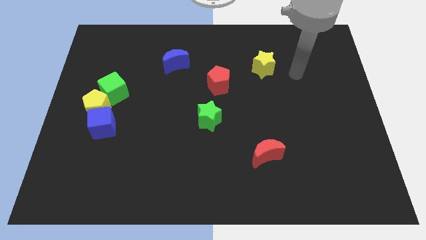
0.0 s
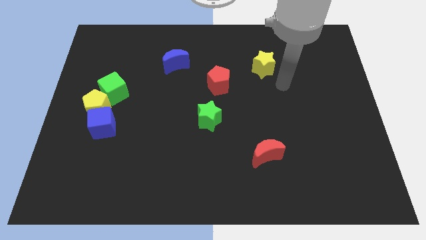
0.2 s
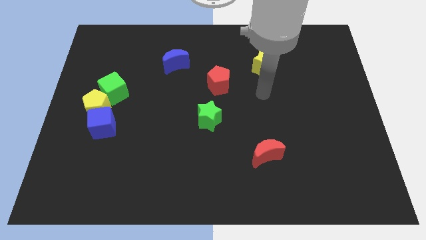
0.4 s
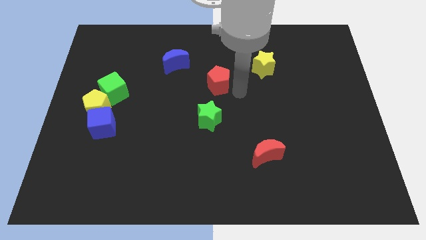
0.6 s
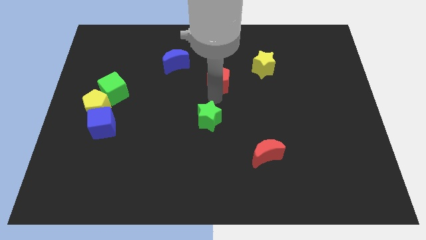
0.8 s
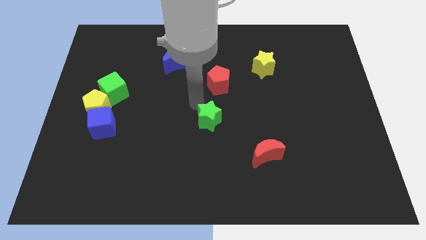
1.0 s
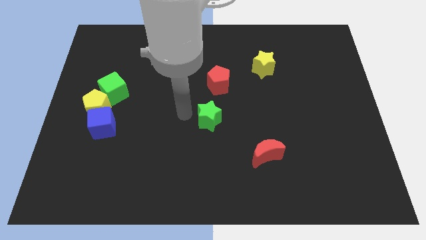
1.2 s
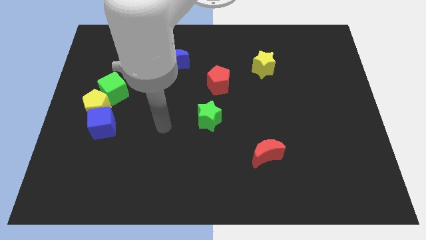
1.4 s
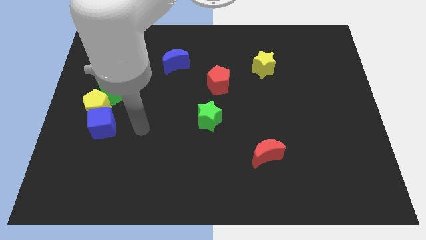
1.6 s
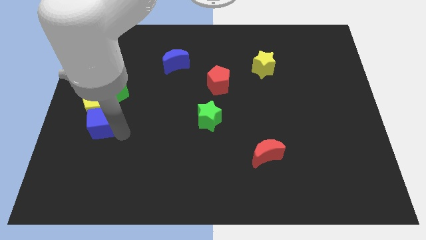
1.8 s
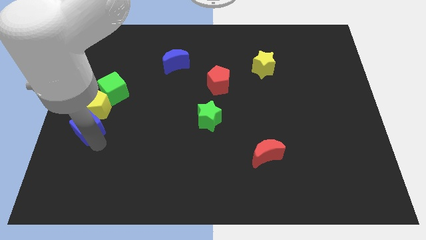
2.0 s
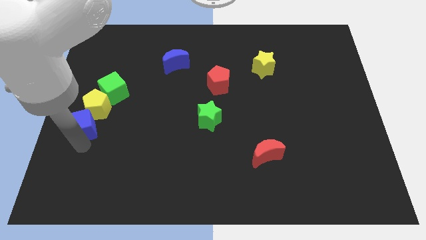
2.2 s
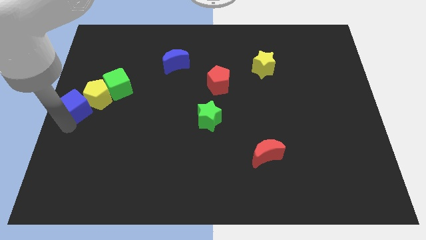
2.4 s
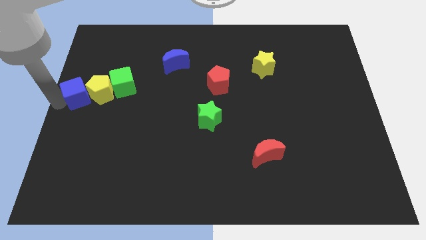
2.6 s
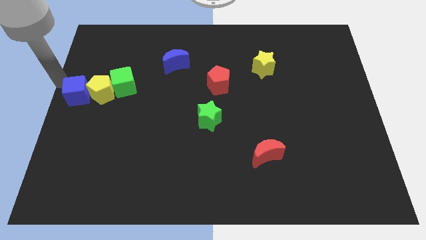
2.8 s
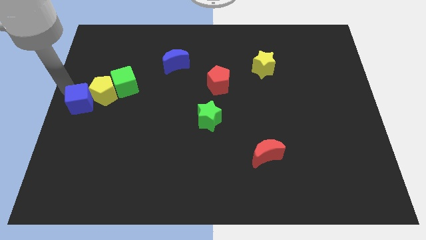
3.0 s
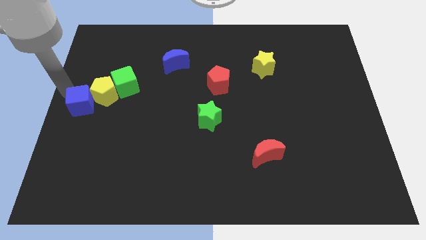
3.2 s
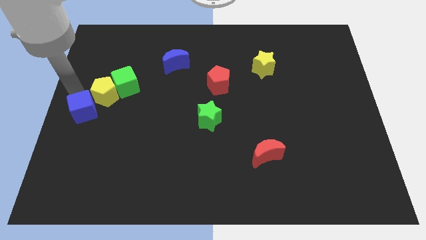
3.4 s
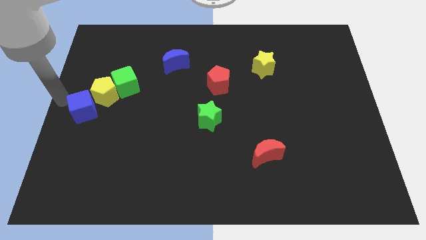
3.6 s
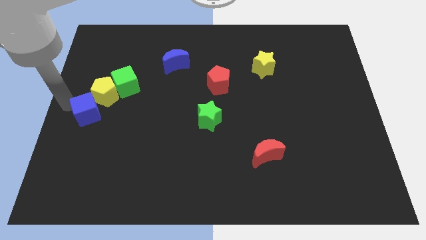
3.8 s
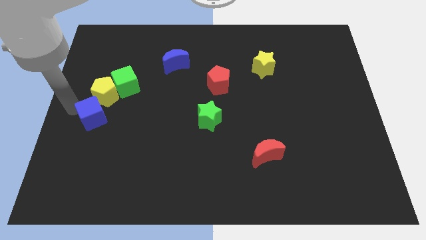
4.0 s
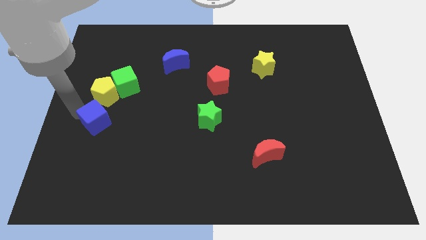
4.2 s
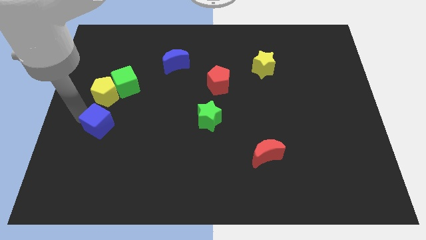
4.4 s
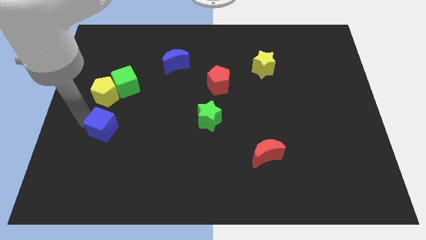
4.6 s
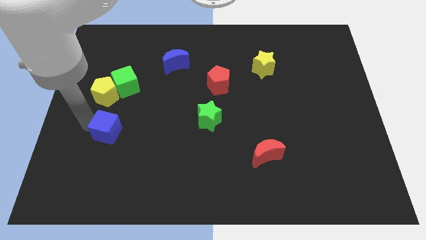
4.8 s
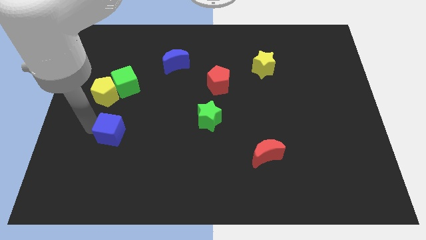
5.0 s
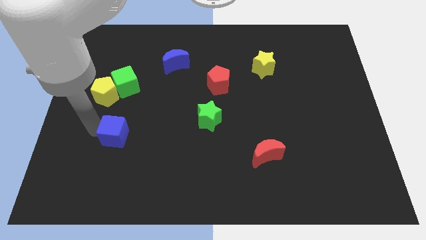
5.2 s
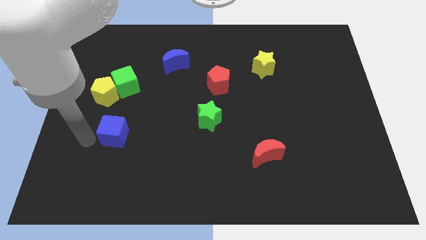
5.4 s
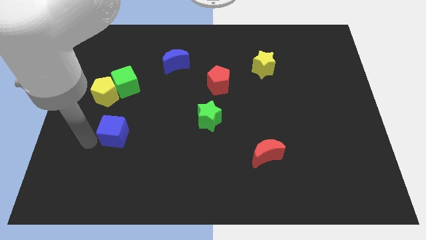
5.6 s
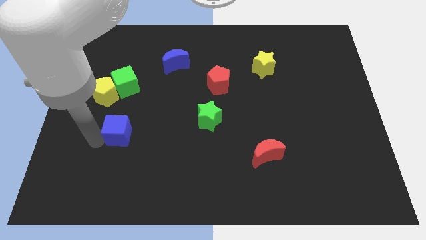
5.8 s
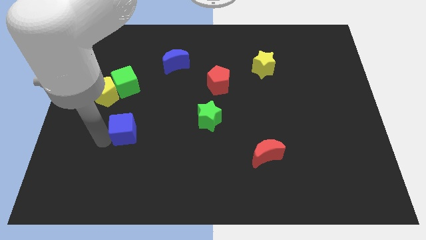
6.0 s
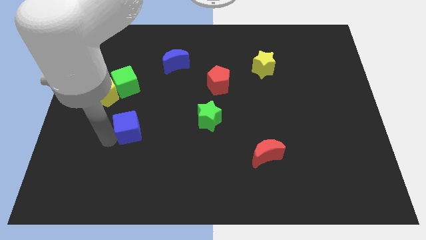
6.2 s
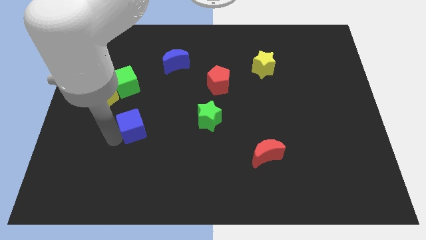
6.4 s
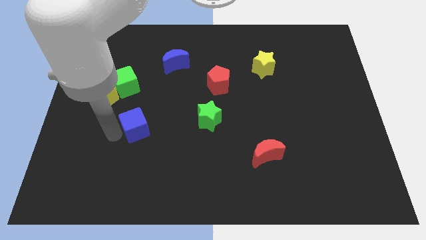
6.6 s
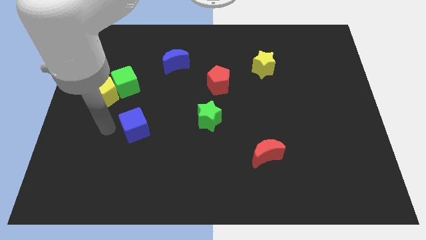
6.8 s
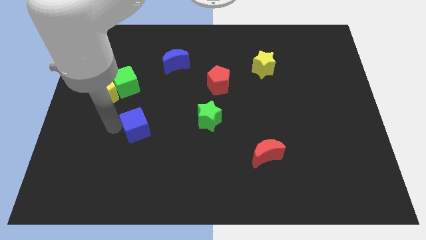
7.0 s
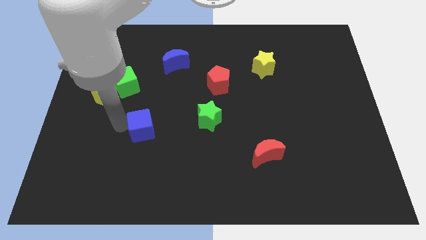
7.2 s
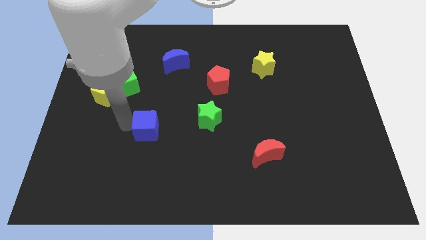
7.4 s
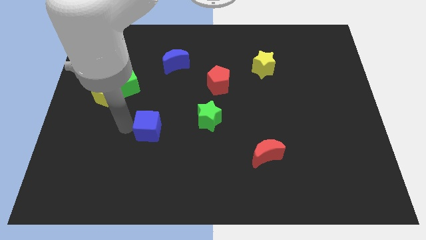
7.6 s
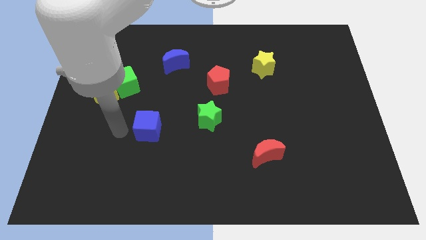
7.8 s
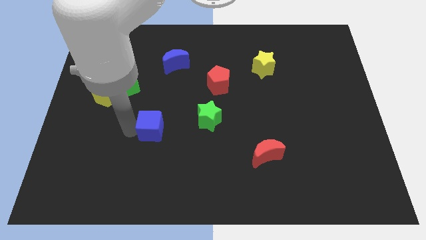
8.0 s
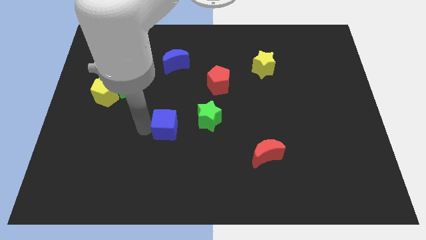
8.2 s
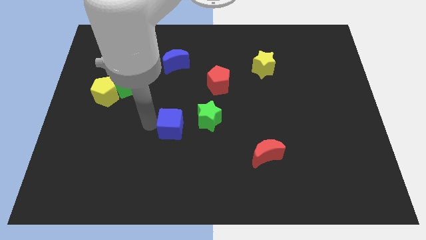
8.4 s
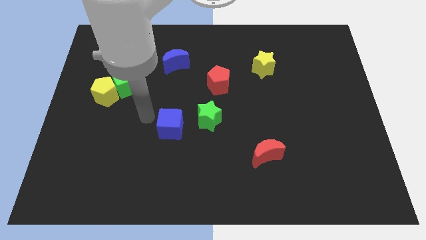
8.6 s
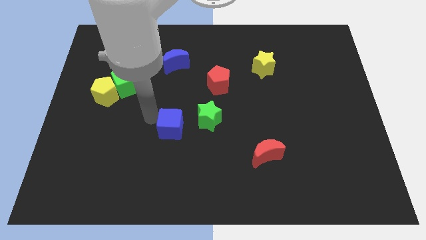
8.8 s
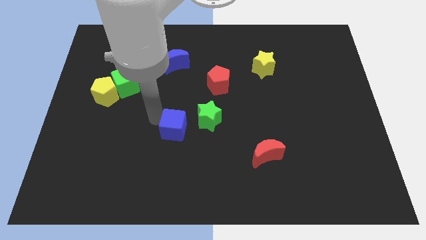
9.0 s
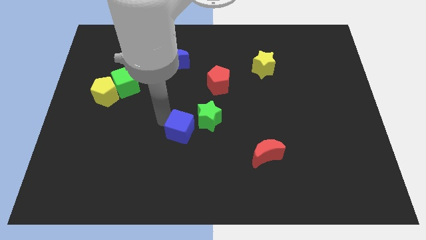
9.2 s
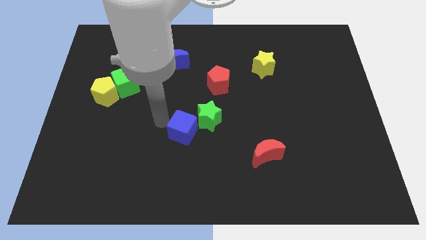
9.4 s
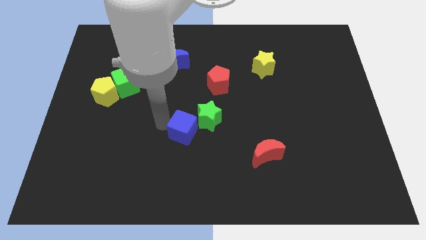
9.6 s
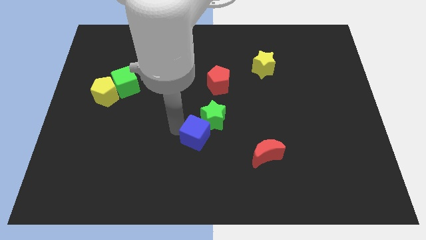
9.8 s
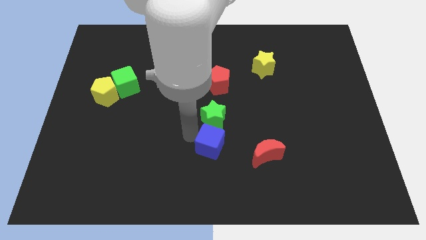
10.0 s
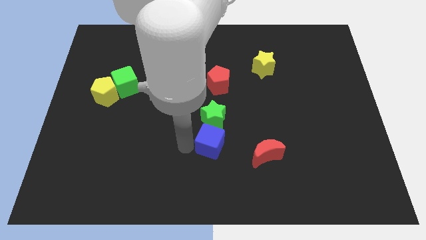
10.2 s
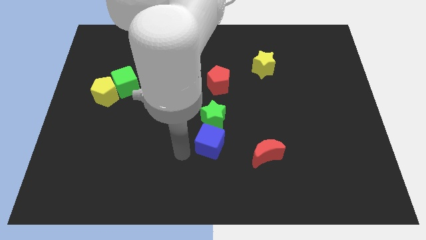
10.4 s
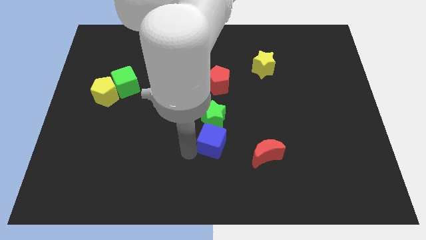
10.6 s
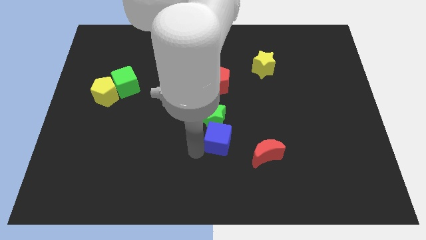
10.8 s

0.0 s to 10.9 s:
slide the blue cube diagonally up and to the left of the red moon

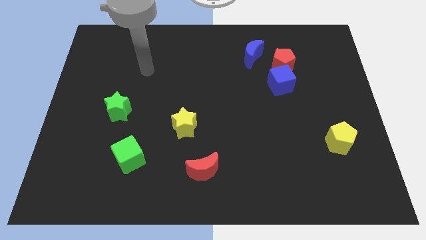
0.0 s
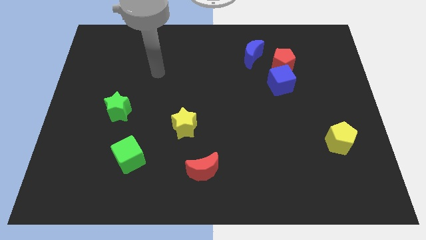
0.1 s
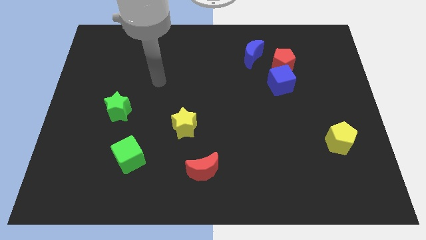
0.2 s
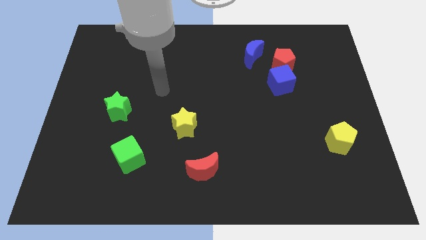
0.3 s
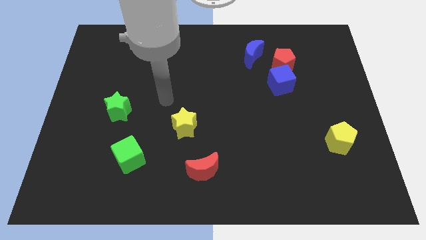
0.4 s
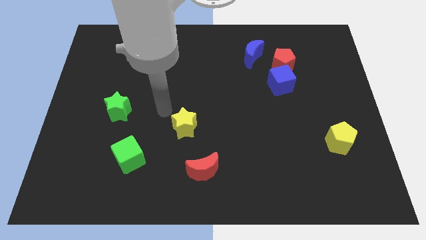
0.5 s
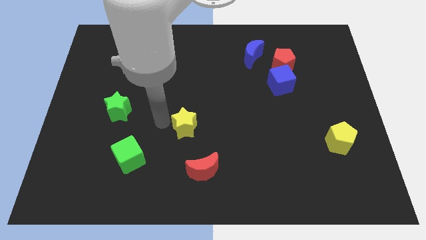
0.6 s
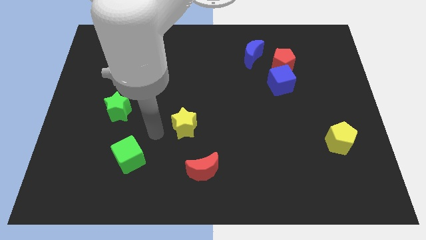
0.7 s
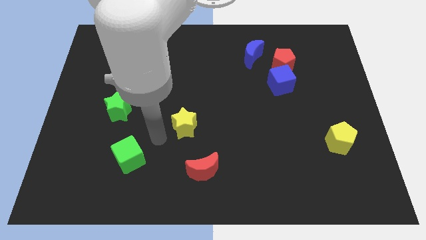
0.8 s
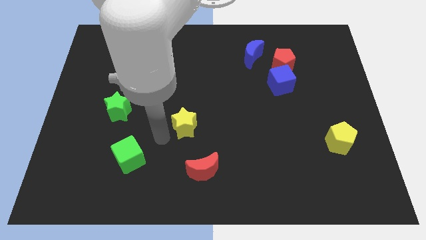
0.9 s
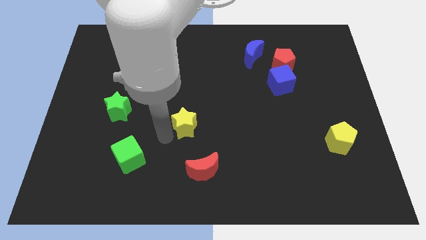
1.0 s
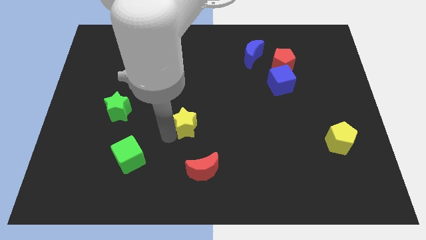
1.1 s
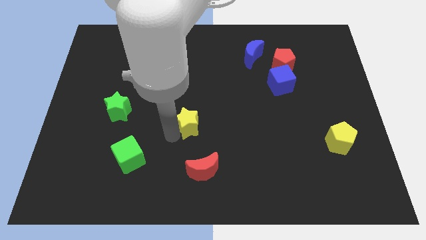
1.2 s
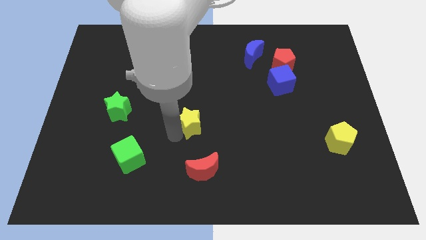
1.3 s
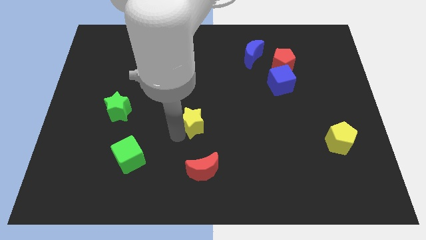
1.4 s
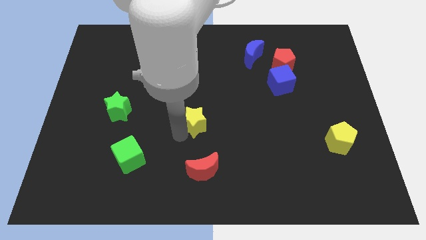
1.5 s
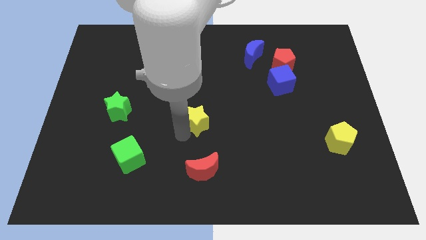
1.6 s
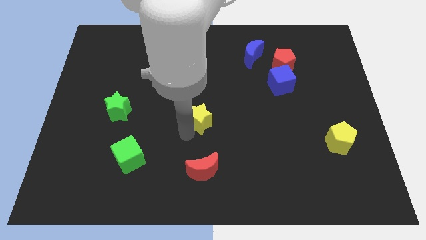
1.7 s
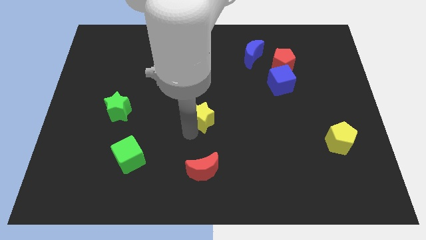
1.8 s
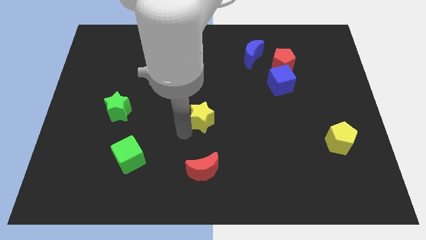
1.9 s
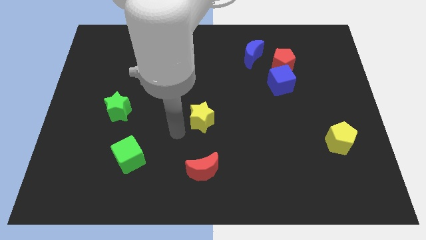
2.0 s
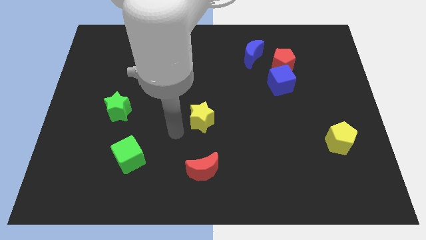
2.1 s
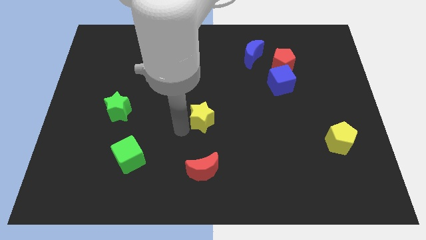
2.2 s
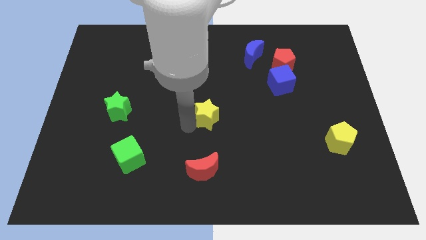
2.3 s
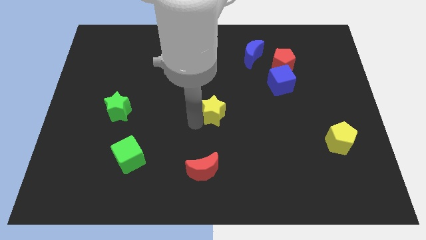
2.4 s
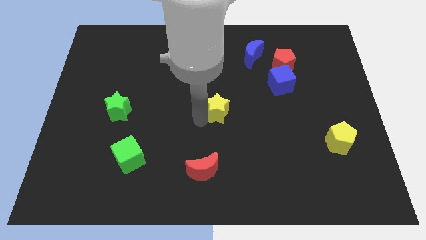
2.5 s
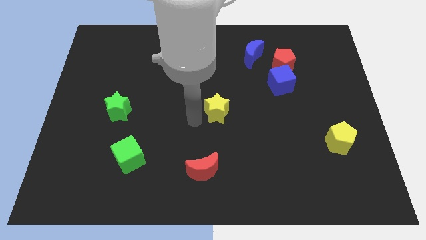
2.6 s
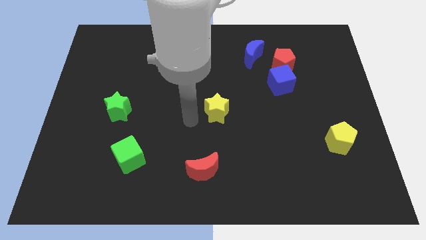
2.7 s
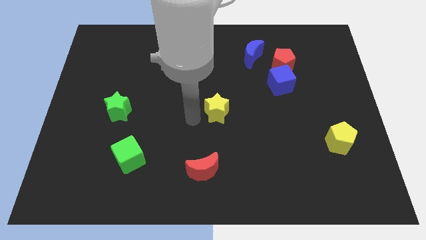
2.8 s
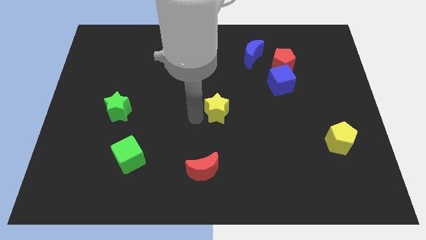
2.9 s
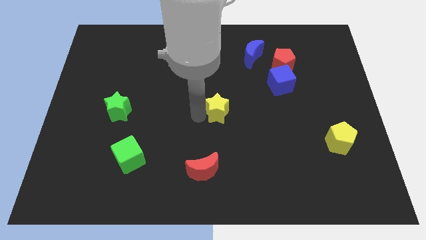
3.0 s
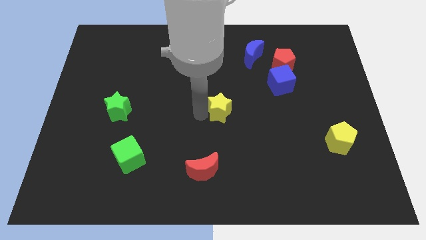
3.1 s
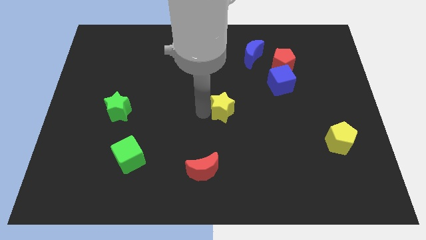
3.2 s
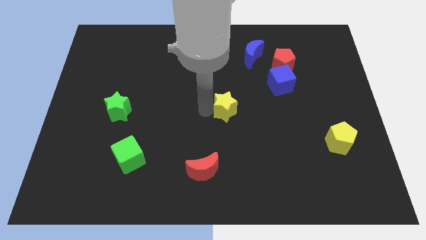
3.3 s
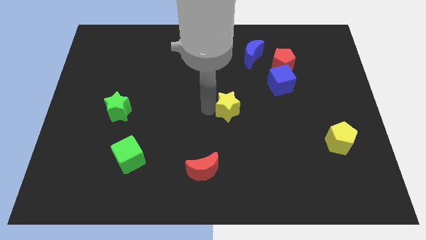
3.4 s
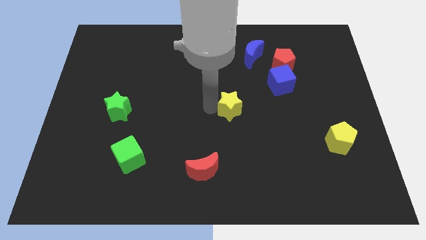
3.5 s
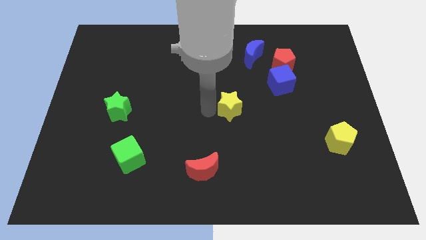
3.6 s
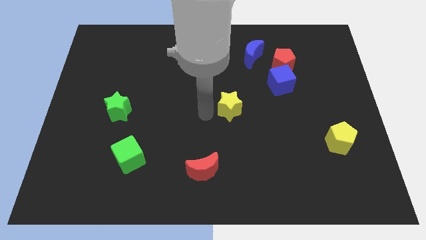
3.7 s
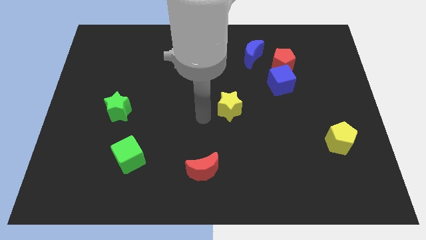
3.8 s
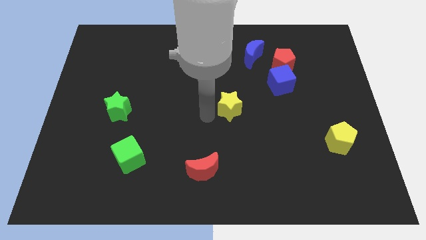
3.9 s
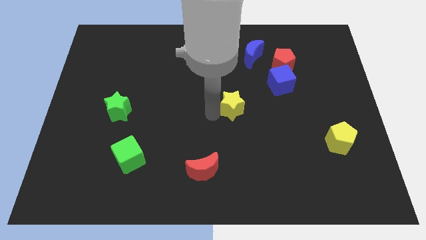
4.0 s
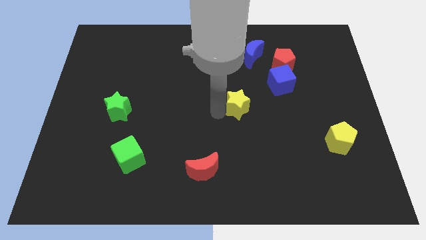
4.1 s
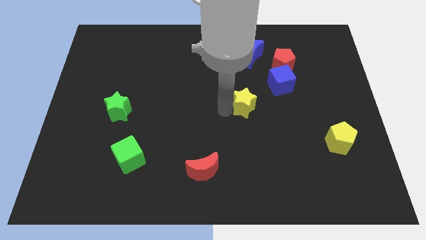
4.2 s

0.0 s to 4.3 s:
put the yellow star diagonally down and to the left of the blue cube
